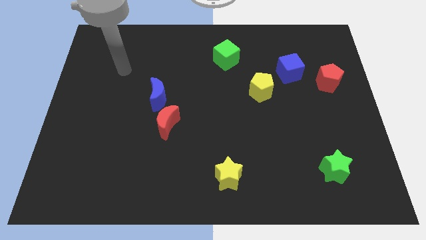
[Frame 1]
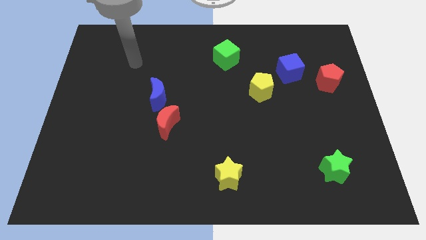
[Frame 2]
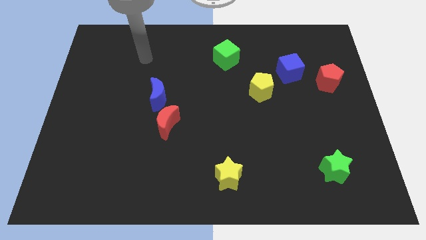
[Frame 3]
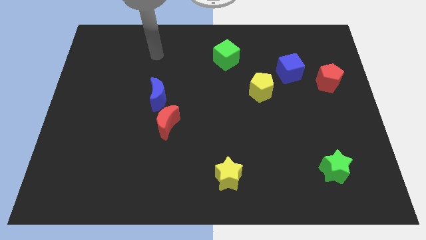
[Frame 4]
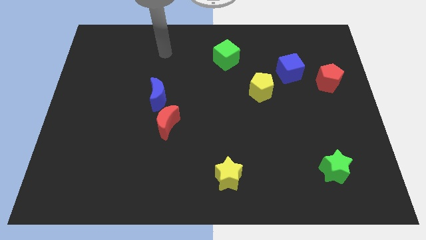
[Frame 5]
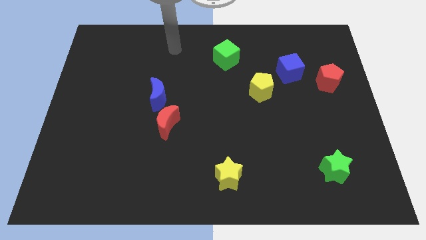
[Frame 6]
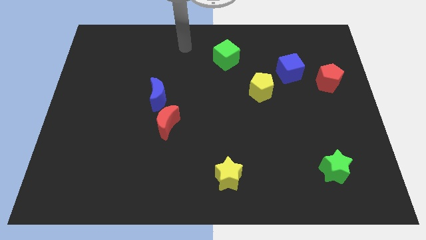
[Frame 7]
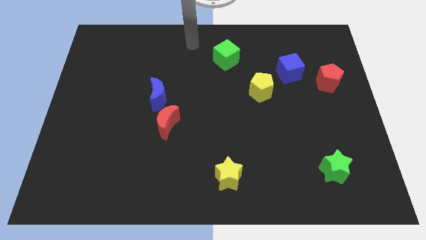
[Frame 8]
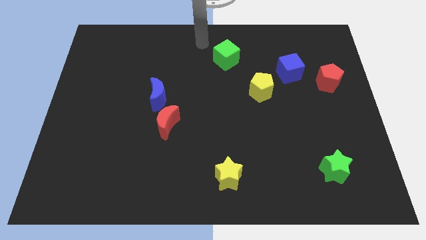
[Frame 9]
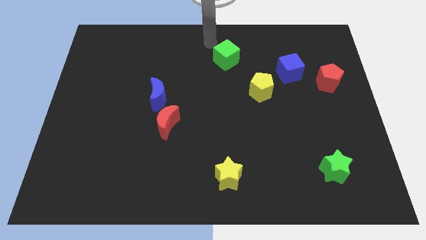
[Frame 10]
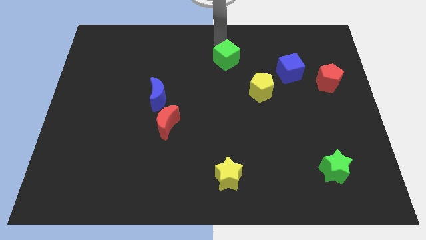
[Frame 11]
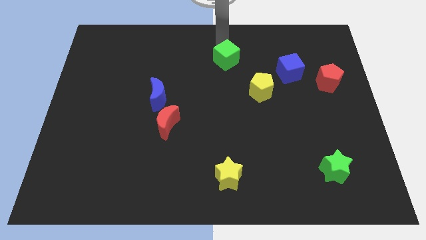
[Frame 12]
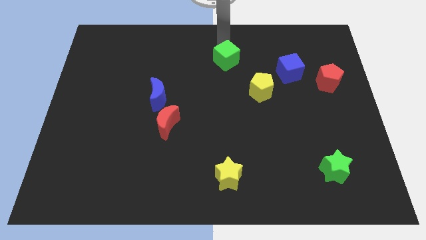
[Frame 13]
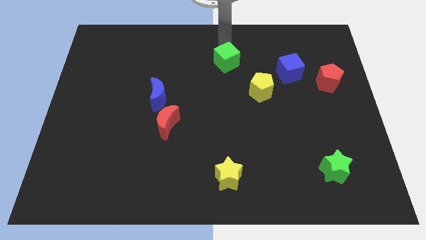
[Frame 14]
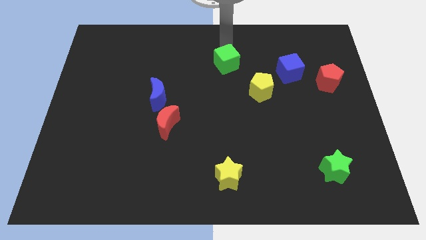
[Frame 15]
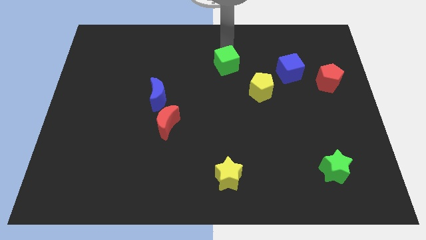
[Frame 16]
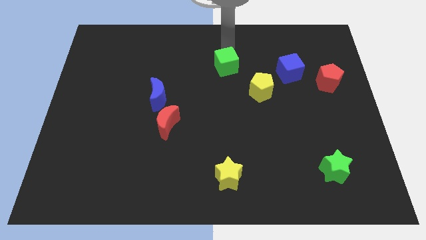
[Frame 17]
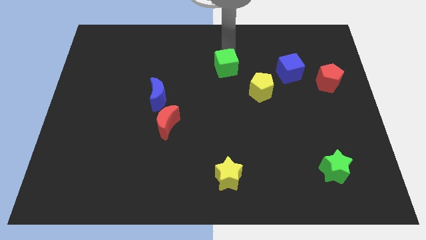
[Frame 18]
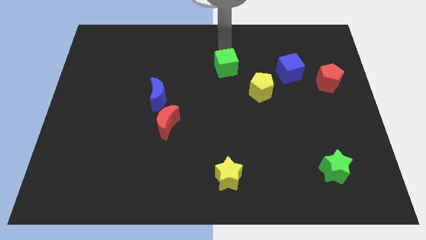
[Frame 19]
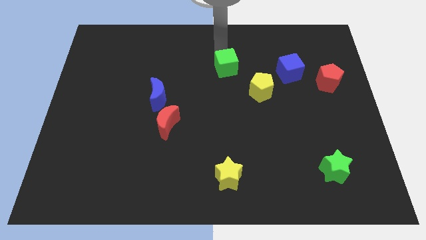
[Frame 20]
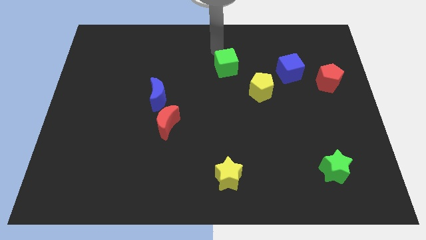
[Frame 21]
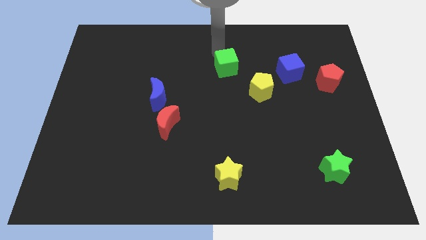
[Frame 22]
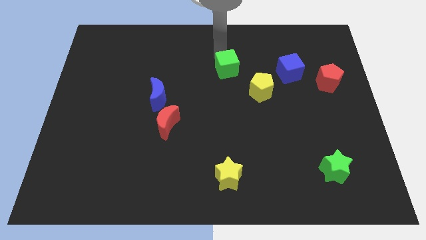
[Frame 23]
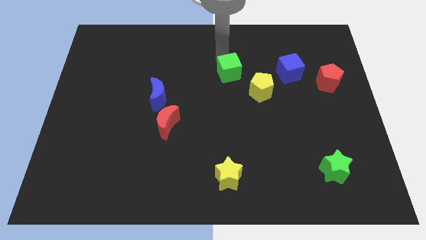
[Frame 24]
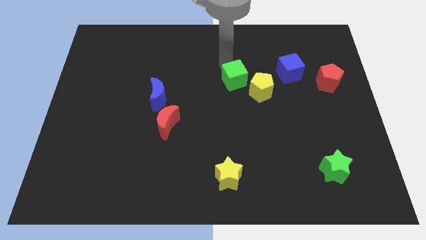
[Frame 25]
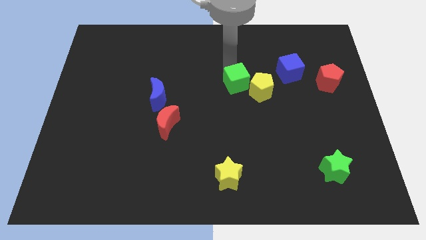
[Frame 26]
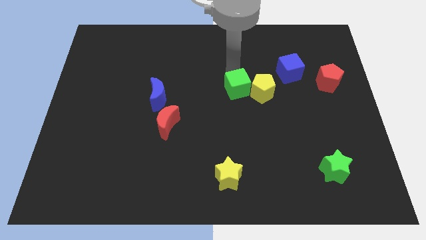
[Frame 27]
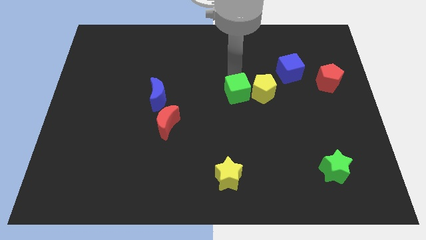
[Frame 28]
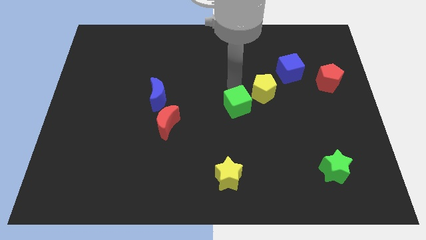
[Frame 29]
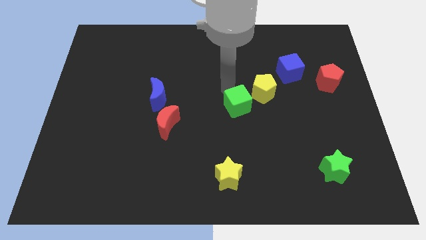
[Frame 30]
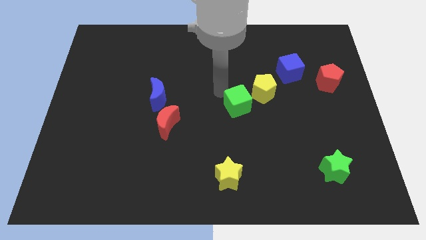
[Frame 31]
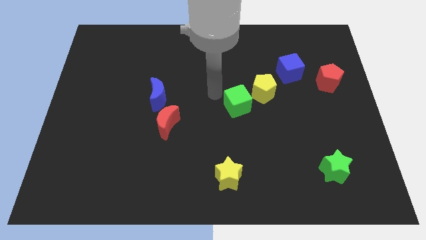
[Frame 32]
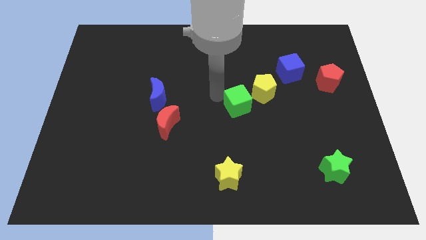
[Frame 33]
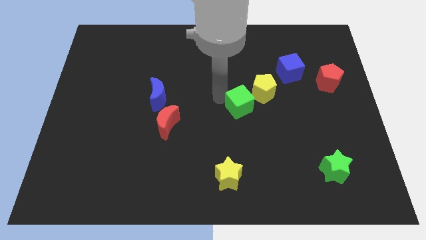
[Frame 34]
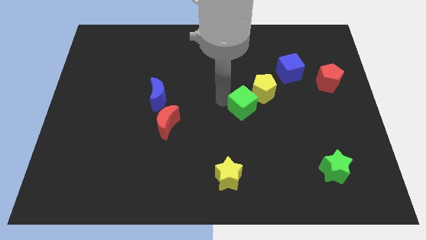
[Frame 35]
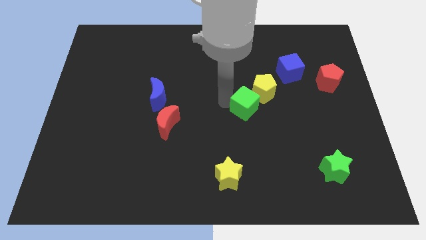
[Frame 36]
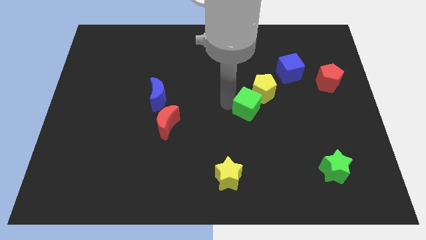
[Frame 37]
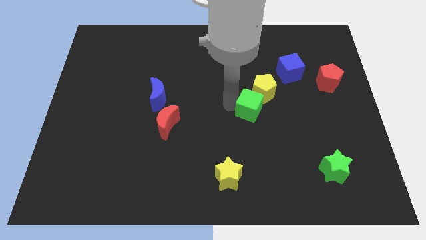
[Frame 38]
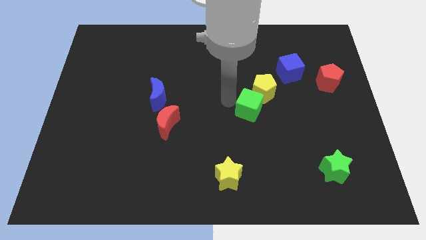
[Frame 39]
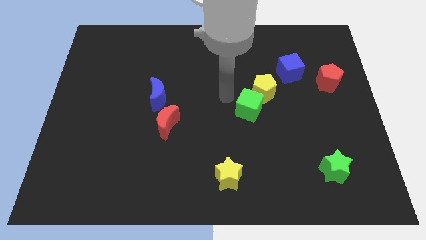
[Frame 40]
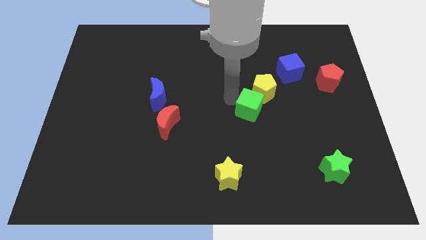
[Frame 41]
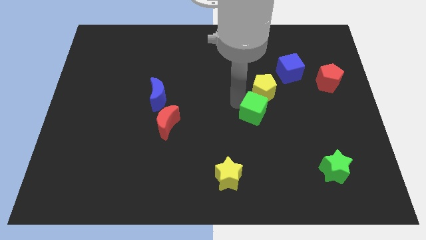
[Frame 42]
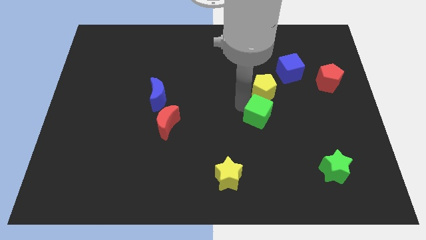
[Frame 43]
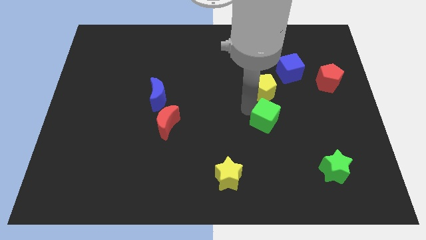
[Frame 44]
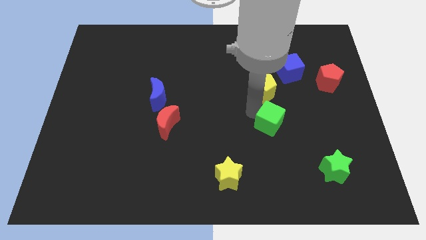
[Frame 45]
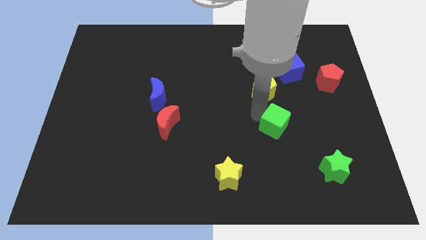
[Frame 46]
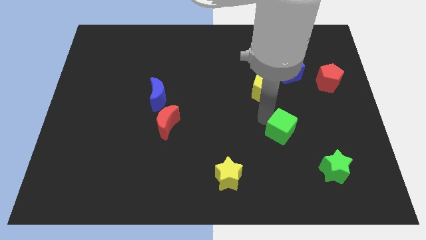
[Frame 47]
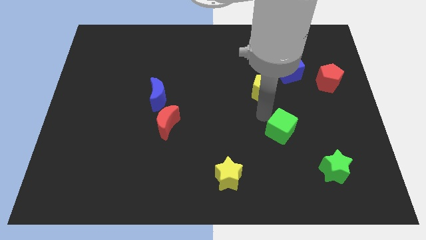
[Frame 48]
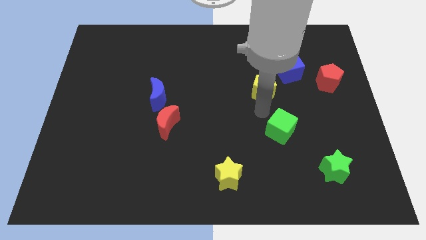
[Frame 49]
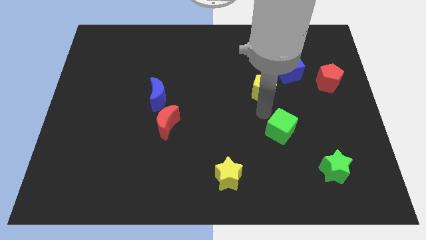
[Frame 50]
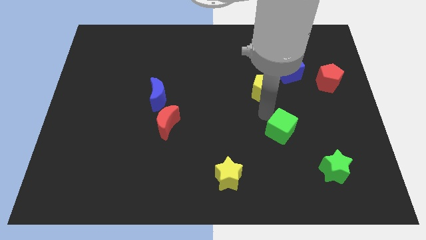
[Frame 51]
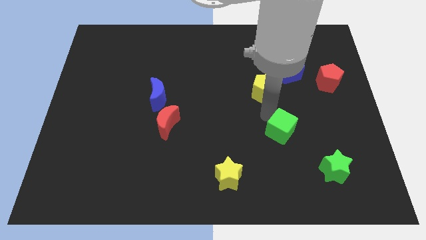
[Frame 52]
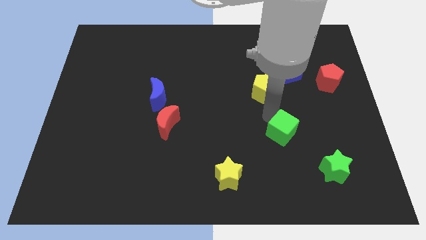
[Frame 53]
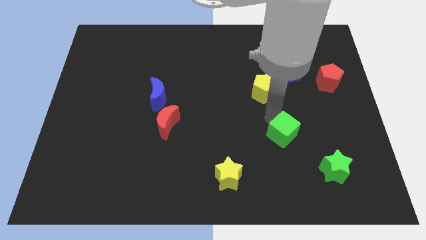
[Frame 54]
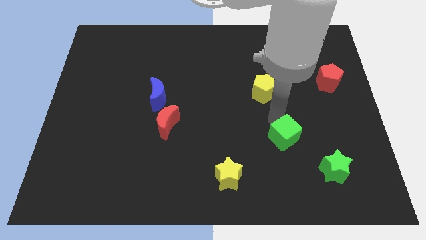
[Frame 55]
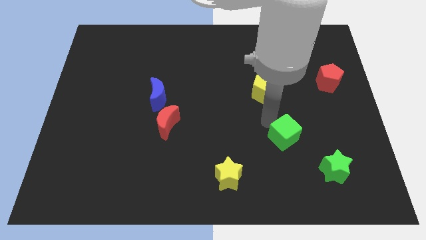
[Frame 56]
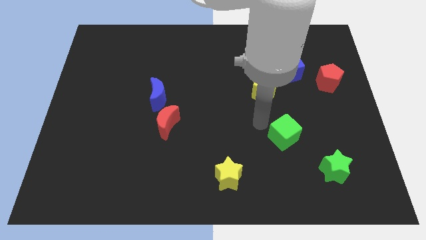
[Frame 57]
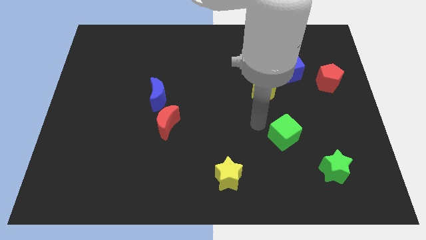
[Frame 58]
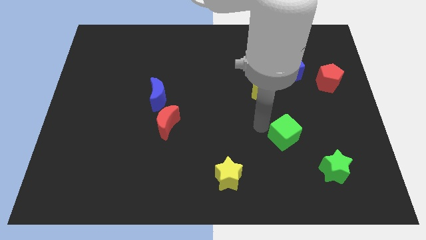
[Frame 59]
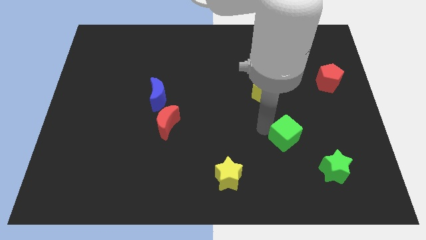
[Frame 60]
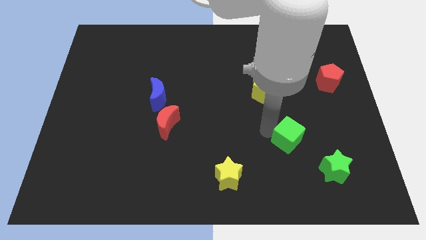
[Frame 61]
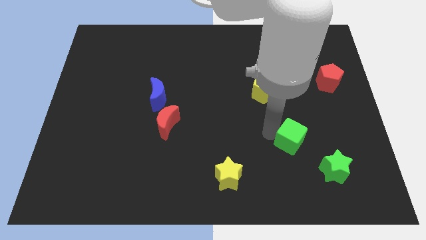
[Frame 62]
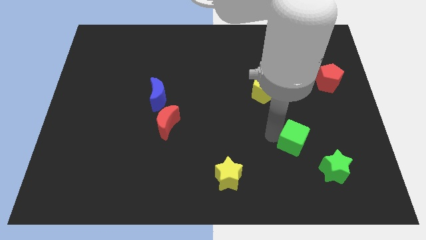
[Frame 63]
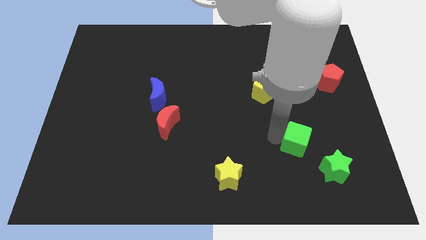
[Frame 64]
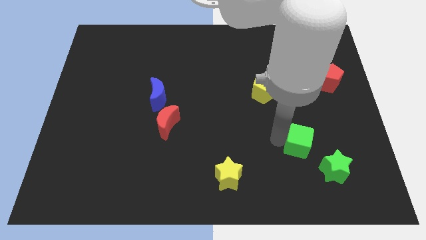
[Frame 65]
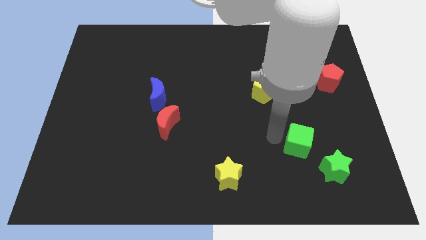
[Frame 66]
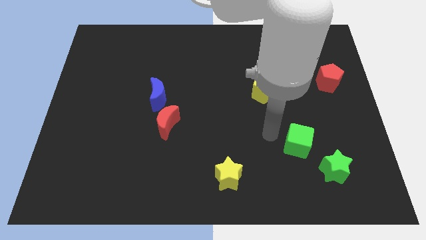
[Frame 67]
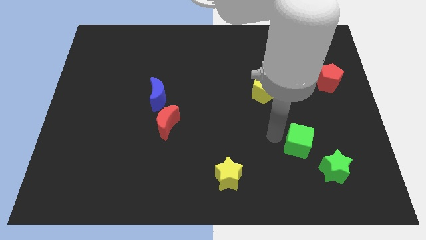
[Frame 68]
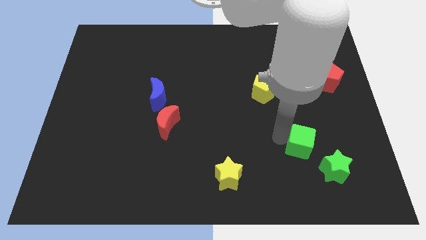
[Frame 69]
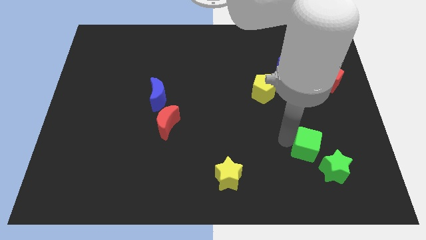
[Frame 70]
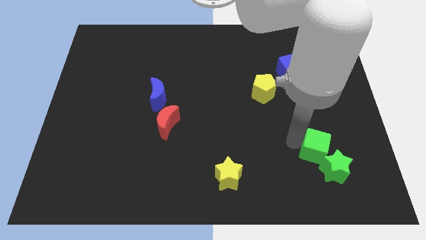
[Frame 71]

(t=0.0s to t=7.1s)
slide the green cube next to the green star
